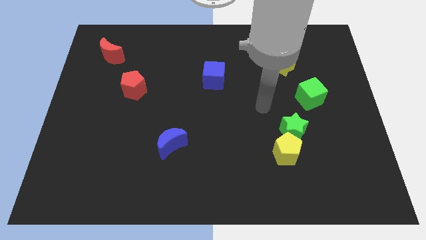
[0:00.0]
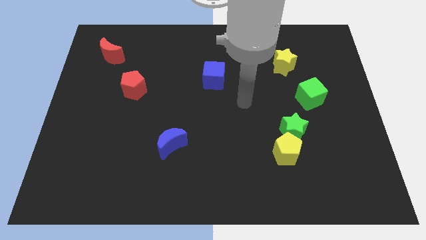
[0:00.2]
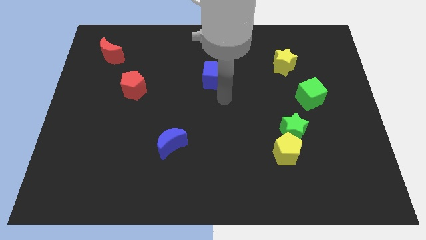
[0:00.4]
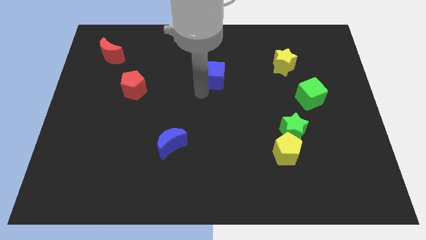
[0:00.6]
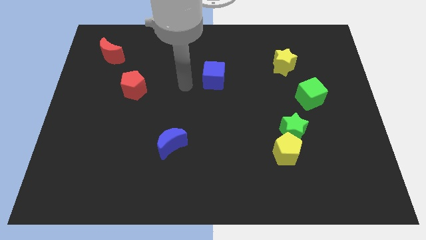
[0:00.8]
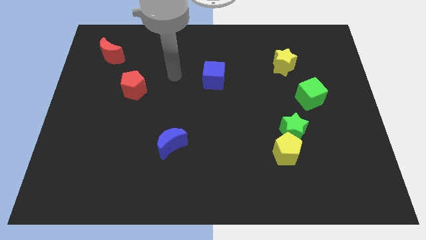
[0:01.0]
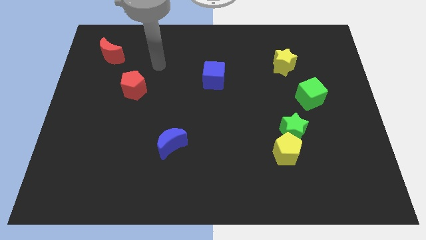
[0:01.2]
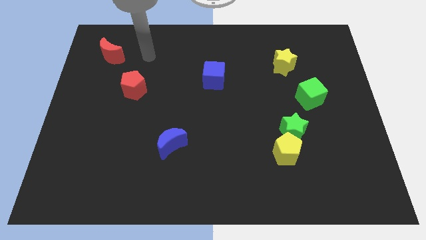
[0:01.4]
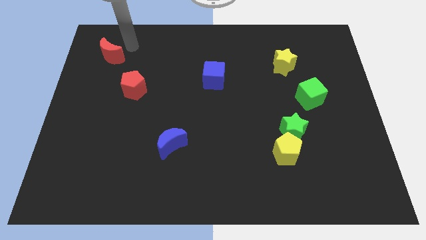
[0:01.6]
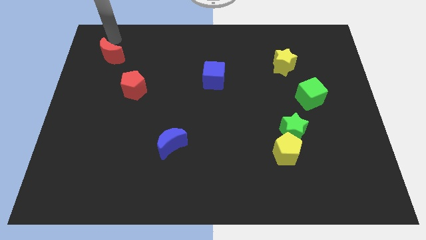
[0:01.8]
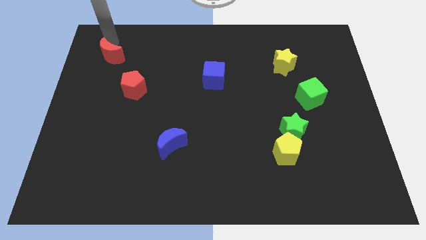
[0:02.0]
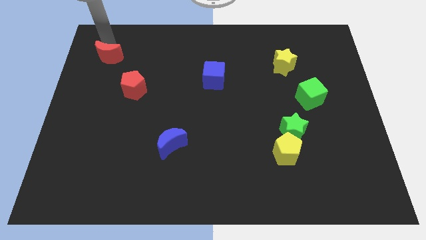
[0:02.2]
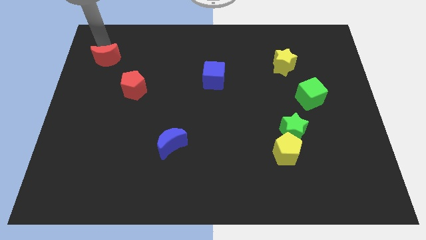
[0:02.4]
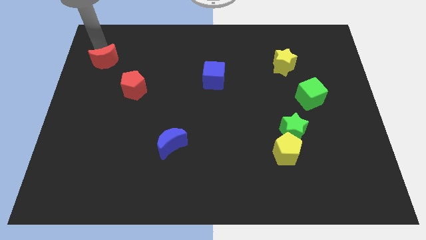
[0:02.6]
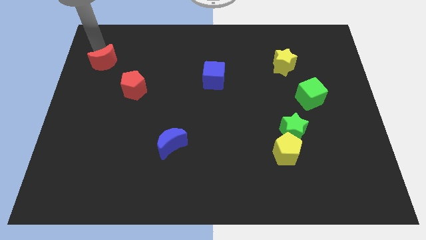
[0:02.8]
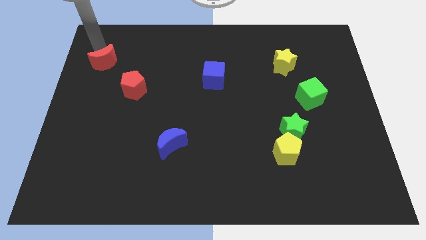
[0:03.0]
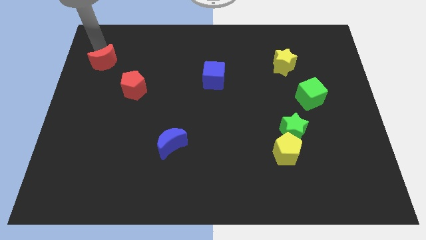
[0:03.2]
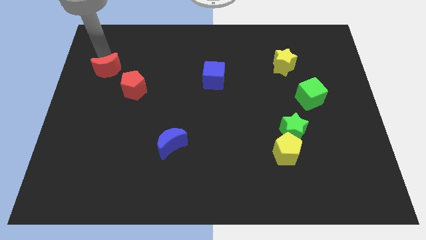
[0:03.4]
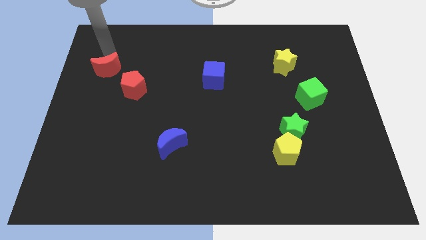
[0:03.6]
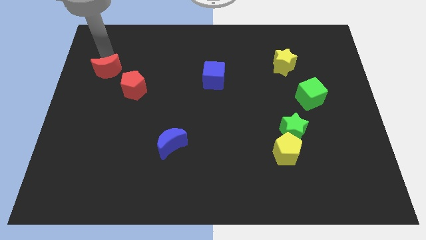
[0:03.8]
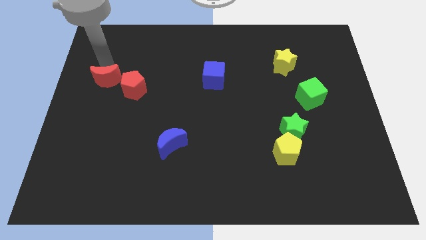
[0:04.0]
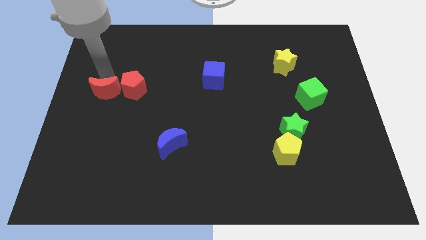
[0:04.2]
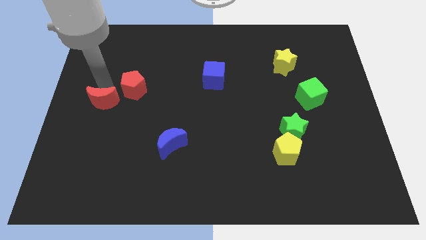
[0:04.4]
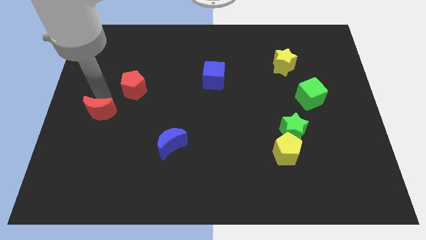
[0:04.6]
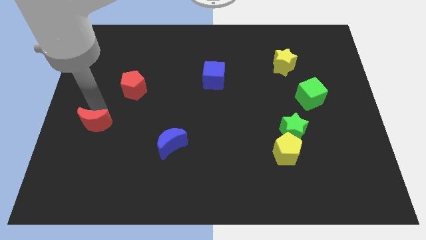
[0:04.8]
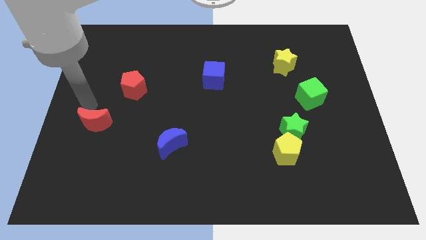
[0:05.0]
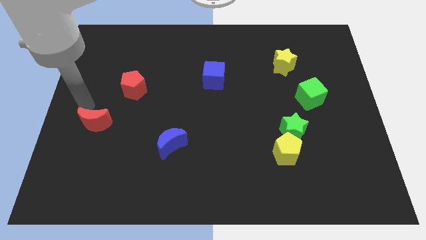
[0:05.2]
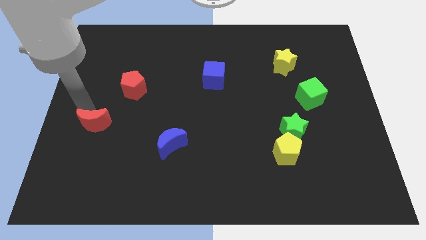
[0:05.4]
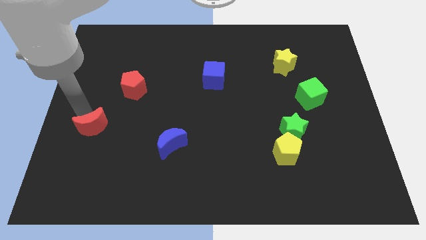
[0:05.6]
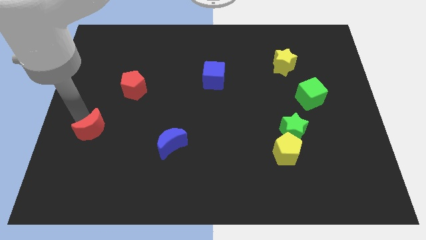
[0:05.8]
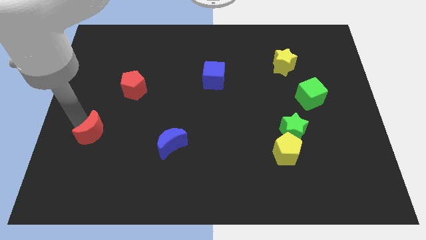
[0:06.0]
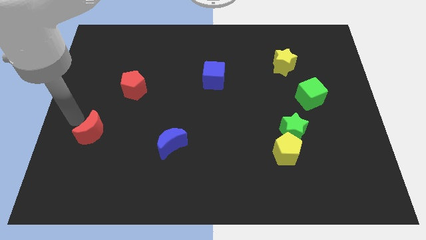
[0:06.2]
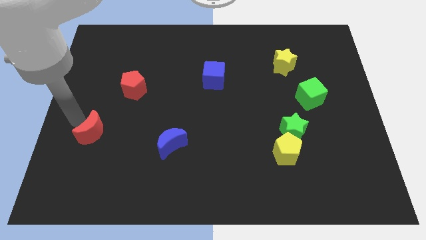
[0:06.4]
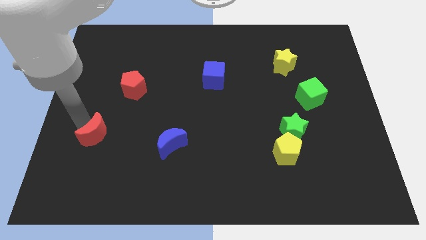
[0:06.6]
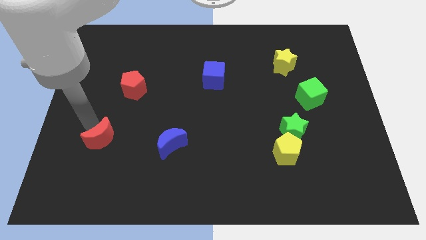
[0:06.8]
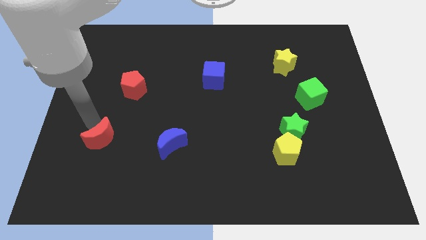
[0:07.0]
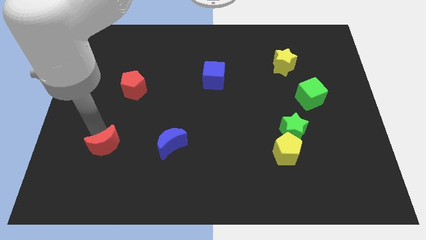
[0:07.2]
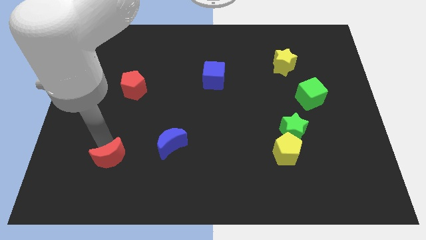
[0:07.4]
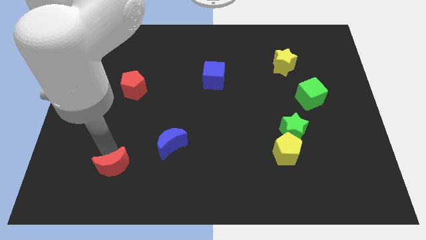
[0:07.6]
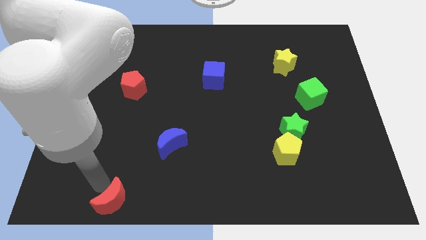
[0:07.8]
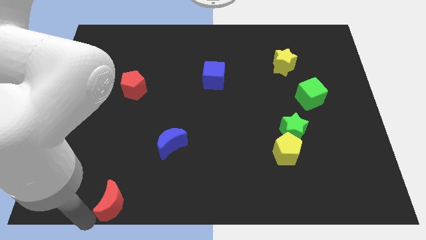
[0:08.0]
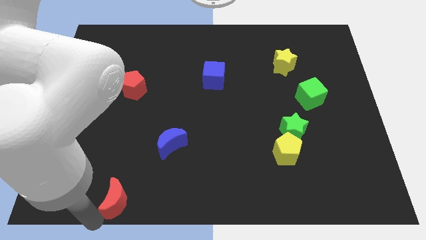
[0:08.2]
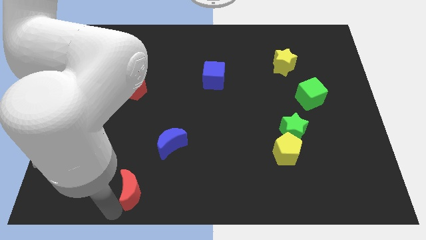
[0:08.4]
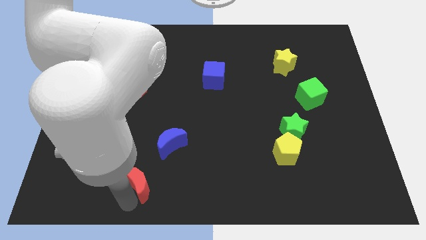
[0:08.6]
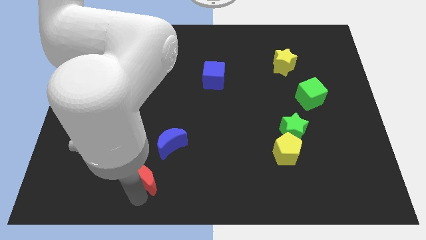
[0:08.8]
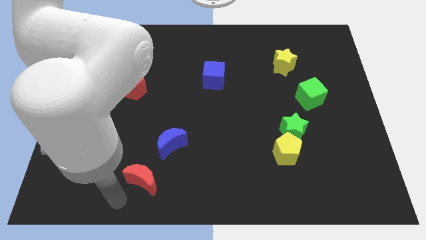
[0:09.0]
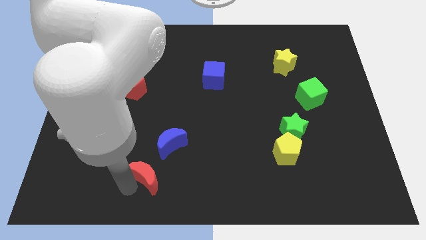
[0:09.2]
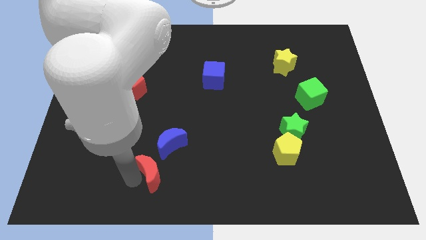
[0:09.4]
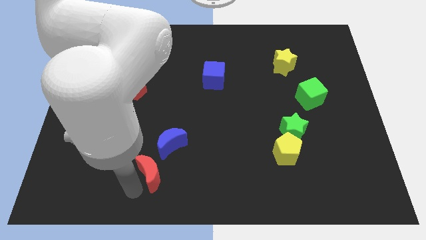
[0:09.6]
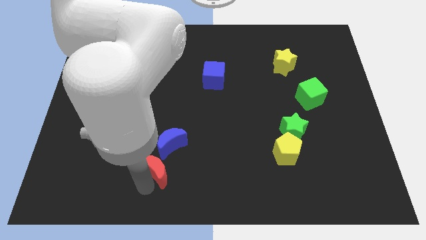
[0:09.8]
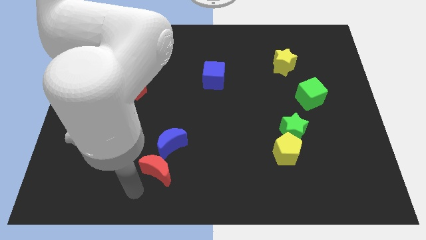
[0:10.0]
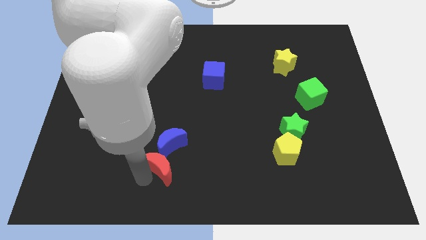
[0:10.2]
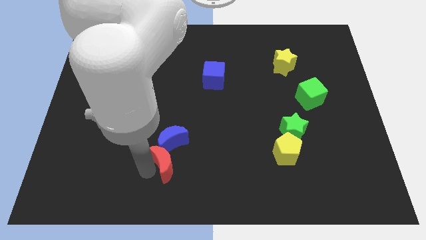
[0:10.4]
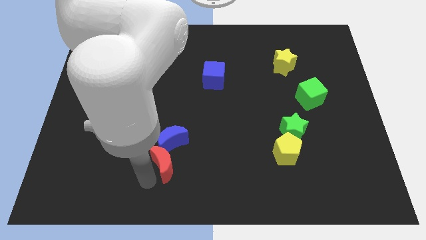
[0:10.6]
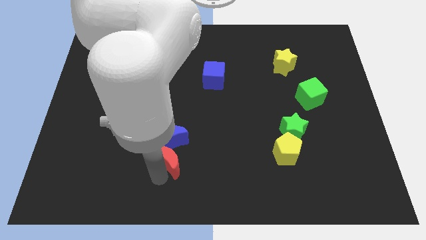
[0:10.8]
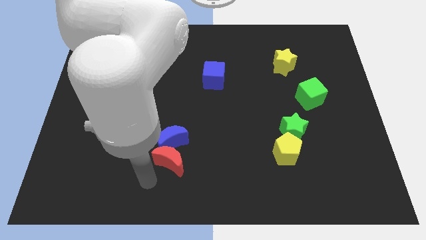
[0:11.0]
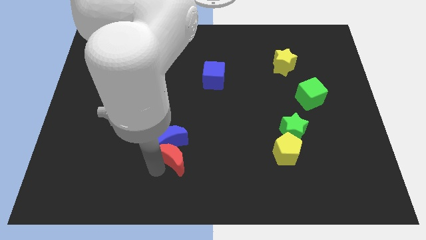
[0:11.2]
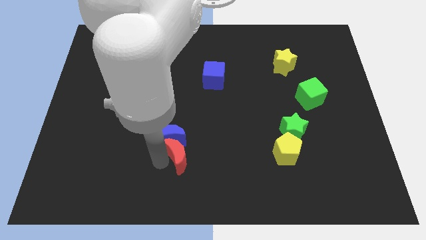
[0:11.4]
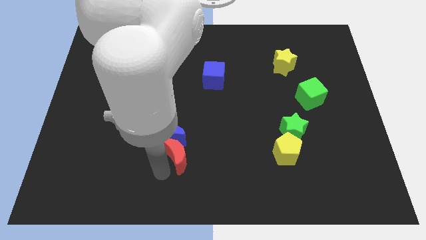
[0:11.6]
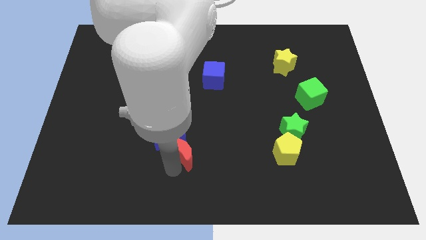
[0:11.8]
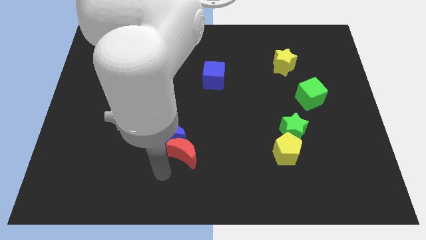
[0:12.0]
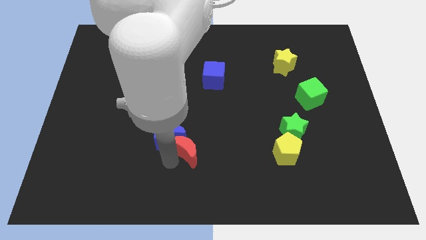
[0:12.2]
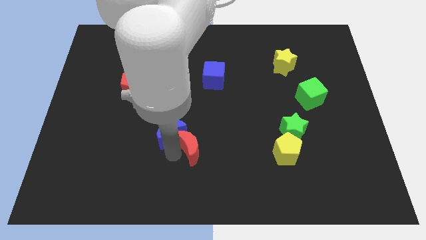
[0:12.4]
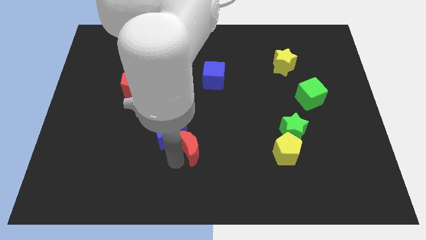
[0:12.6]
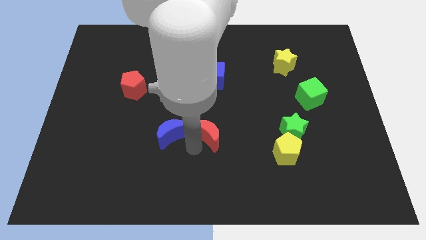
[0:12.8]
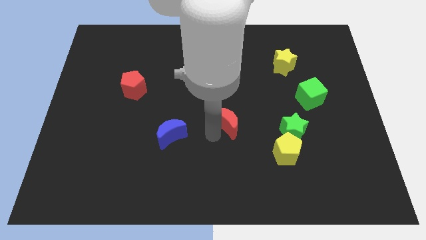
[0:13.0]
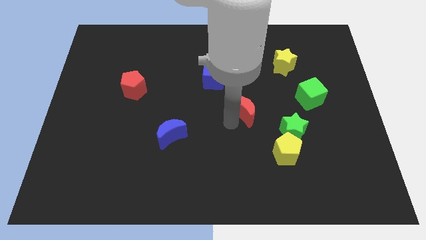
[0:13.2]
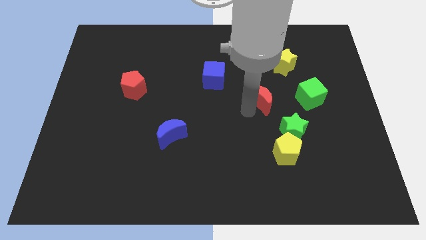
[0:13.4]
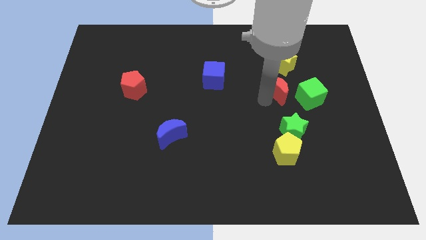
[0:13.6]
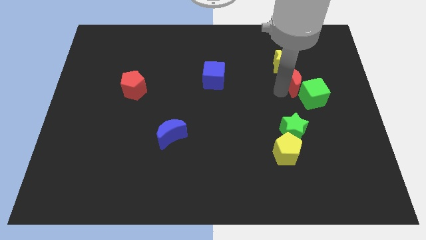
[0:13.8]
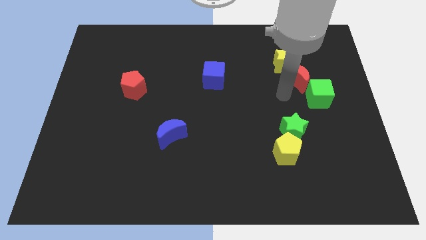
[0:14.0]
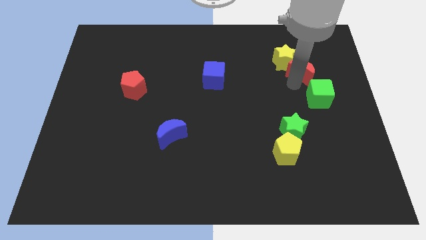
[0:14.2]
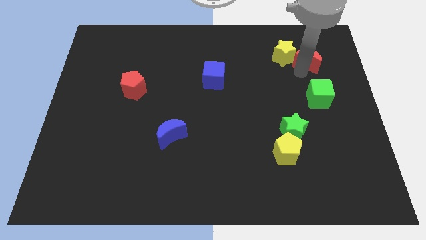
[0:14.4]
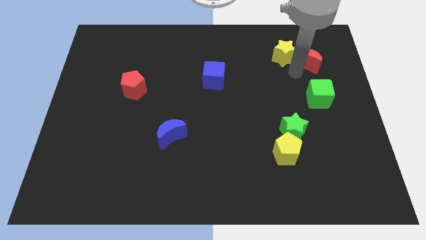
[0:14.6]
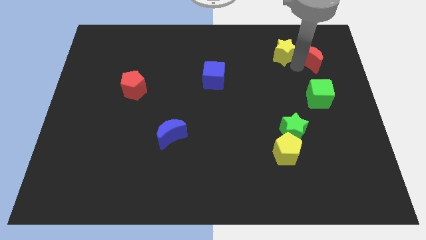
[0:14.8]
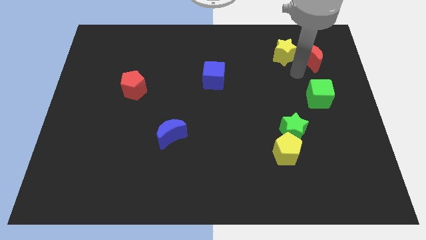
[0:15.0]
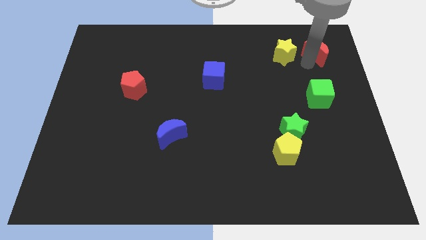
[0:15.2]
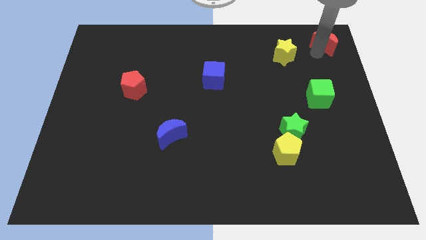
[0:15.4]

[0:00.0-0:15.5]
push the red moon to the top right corner
